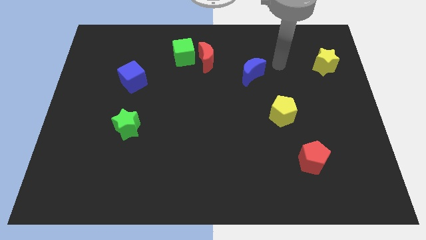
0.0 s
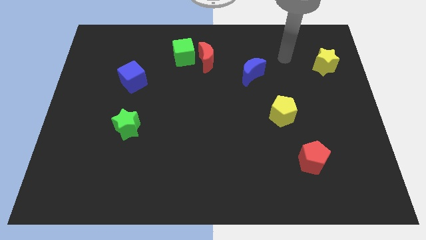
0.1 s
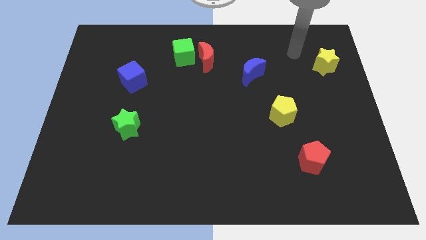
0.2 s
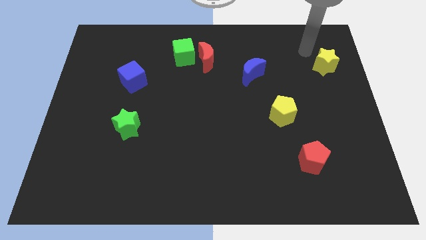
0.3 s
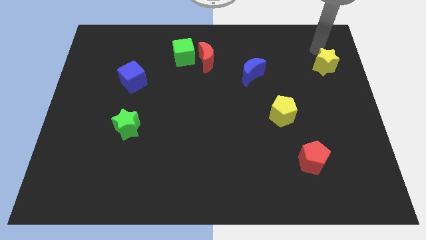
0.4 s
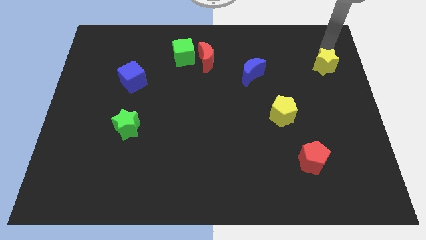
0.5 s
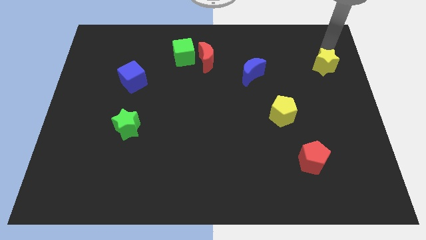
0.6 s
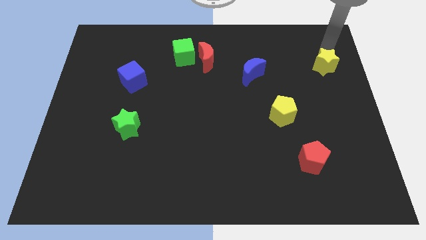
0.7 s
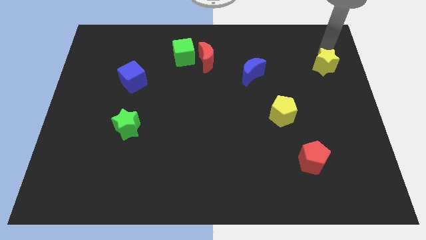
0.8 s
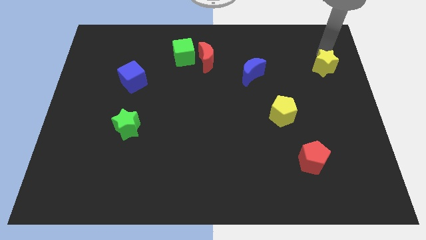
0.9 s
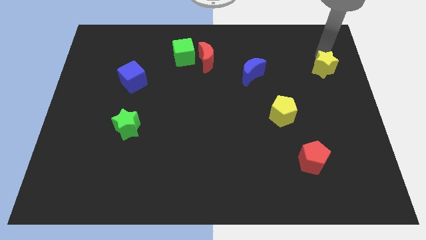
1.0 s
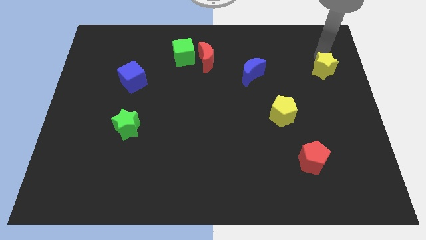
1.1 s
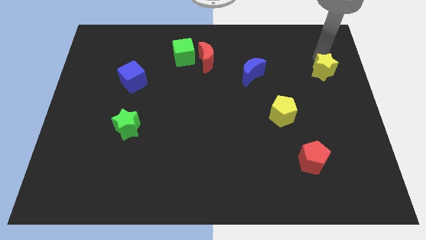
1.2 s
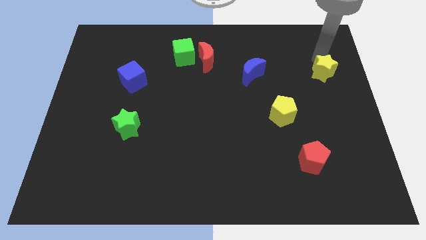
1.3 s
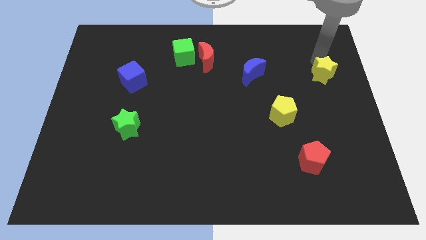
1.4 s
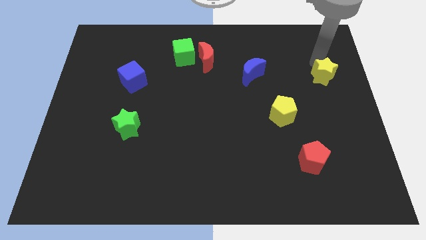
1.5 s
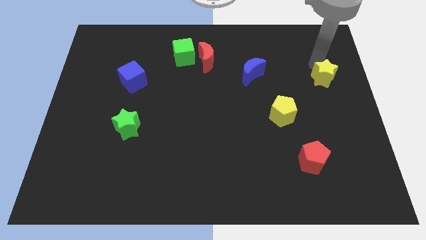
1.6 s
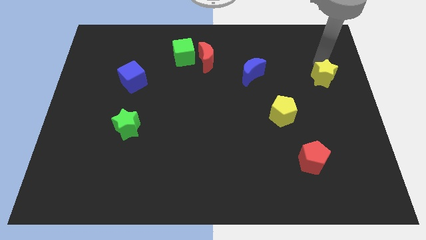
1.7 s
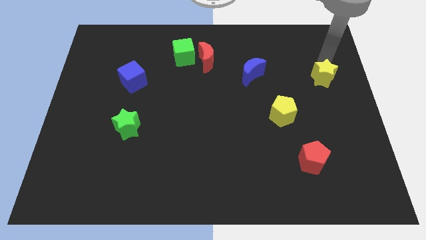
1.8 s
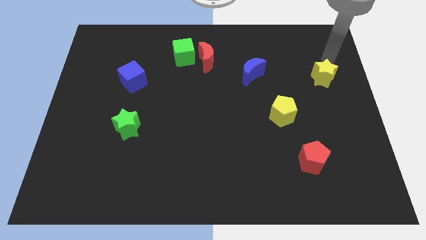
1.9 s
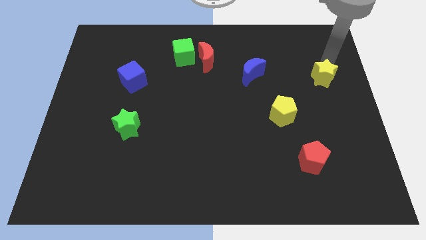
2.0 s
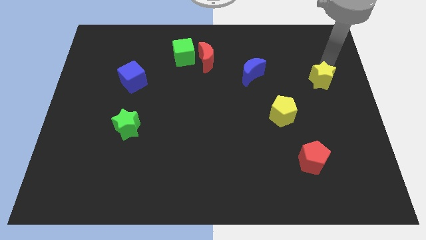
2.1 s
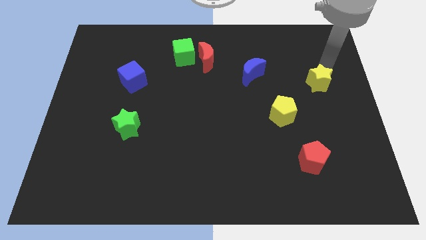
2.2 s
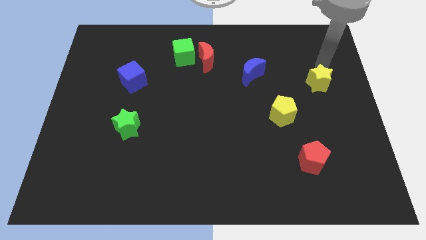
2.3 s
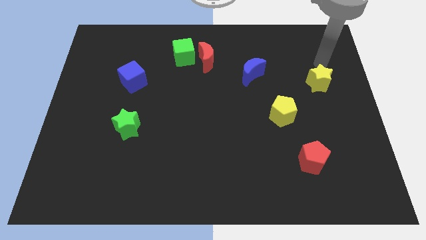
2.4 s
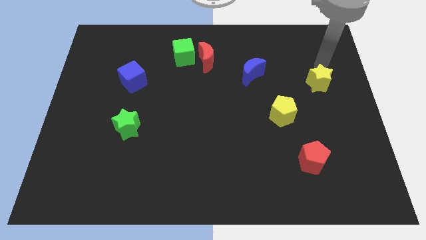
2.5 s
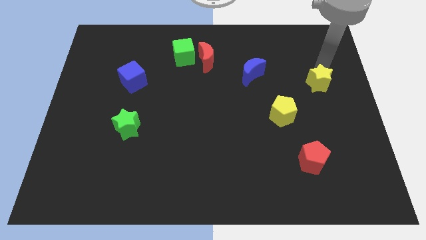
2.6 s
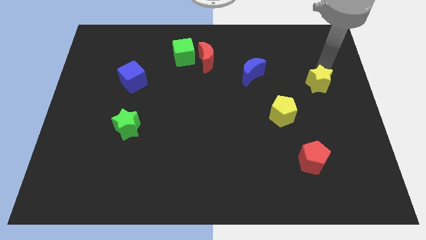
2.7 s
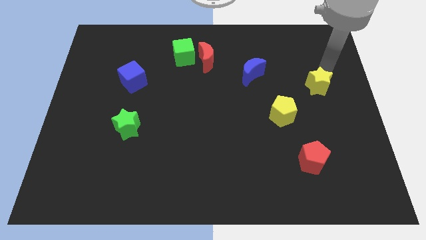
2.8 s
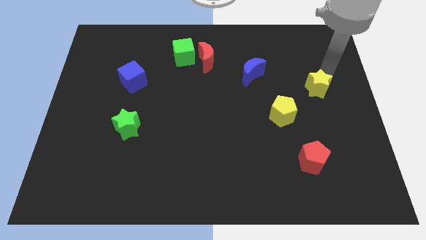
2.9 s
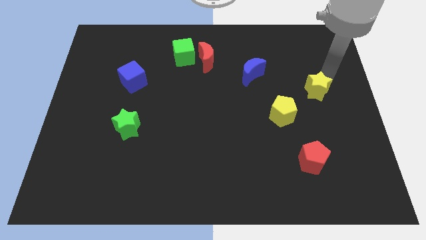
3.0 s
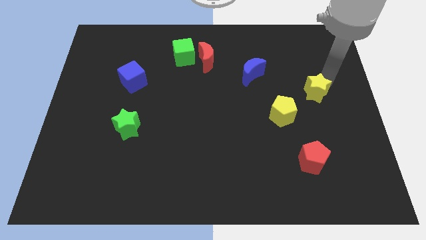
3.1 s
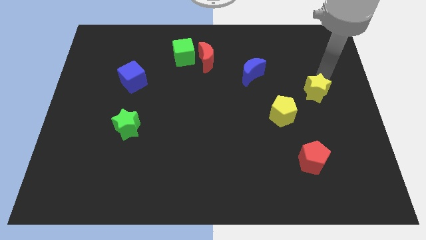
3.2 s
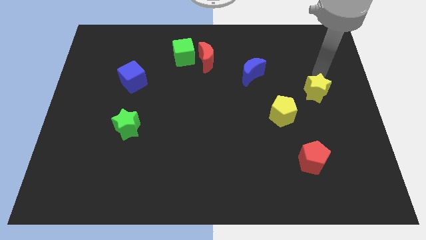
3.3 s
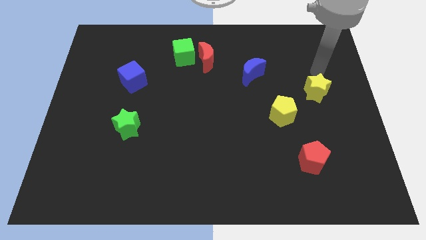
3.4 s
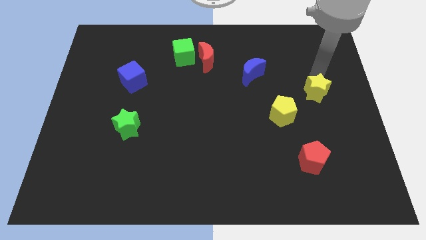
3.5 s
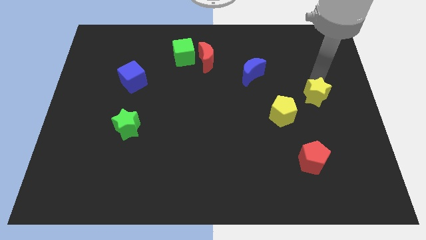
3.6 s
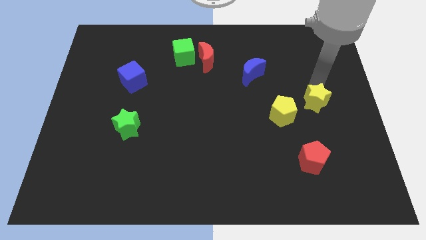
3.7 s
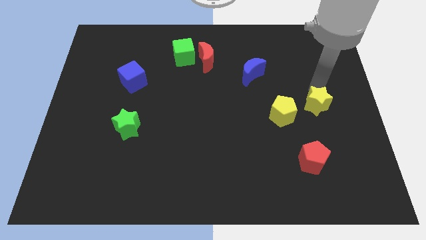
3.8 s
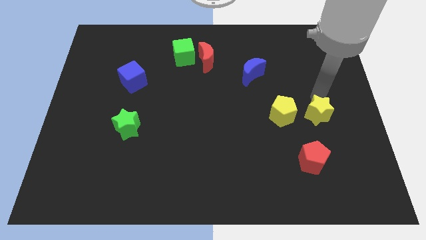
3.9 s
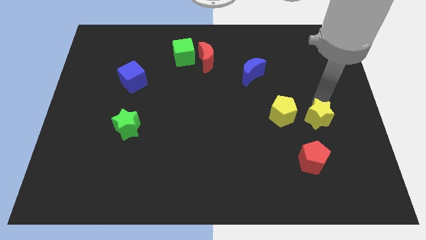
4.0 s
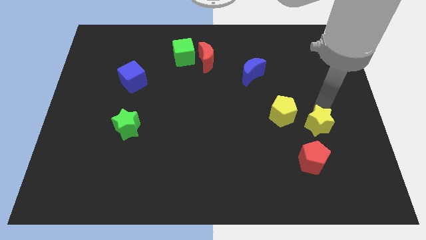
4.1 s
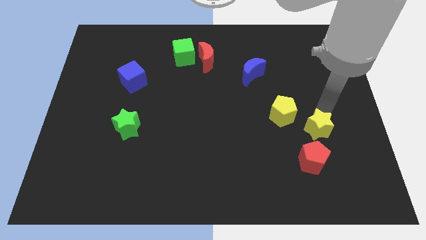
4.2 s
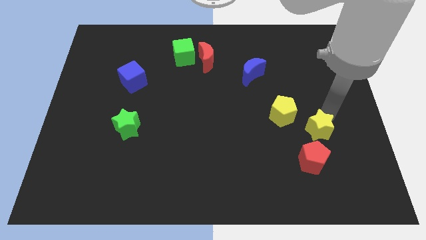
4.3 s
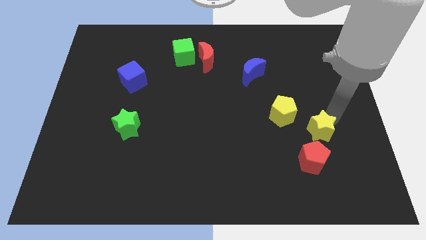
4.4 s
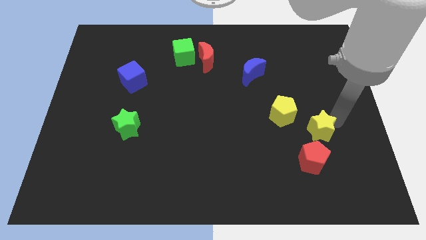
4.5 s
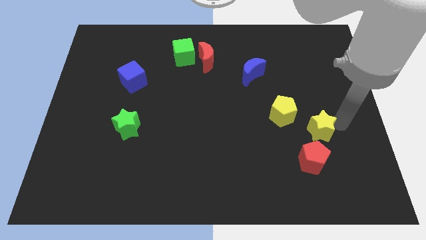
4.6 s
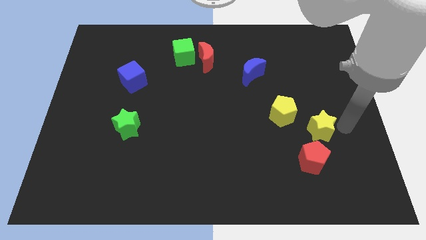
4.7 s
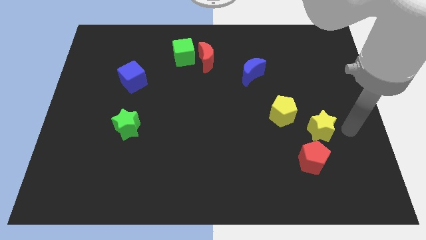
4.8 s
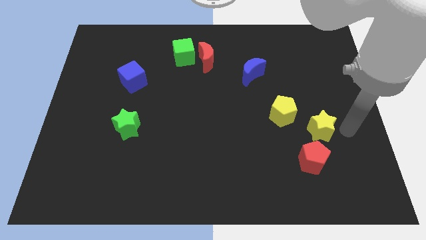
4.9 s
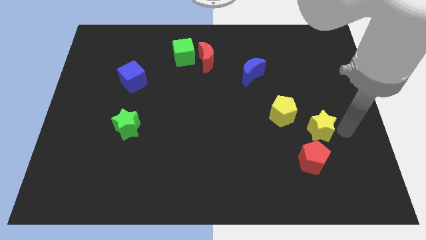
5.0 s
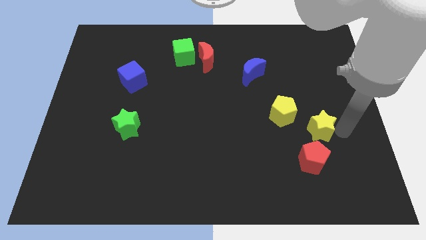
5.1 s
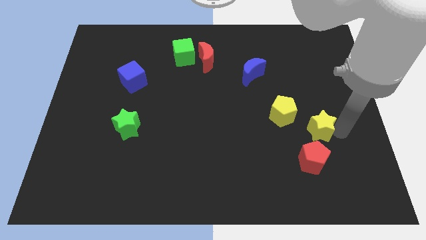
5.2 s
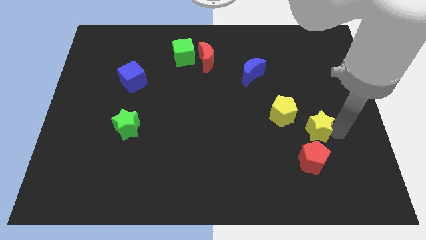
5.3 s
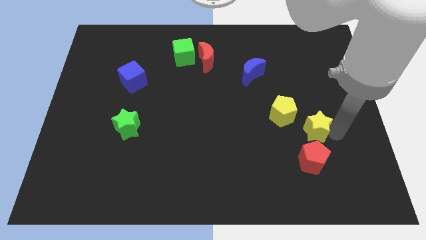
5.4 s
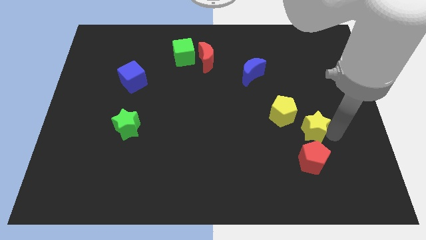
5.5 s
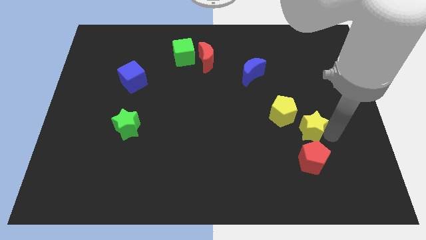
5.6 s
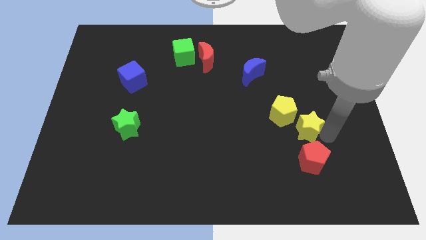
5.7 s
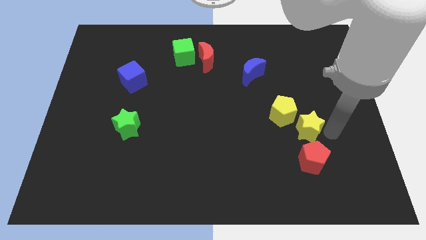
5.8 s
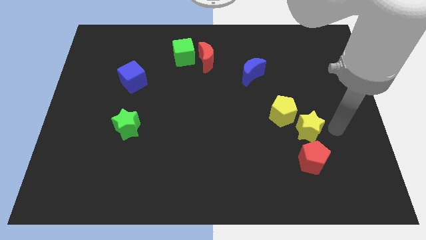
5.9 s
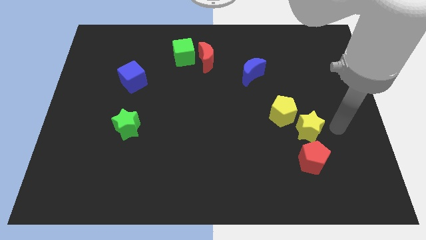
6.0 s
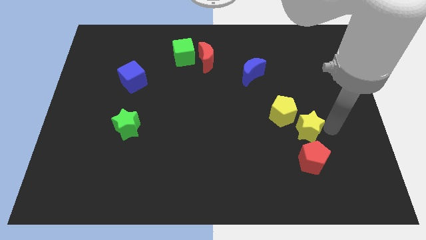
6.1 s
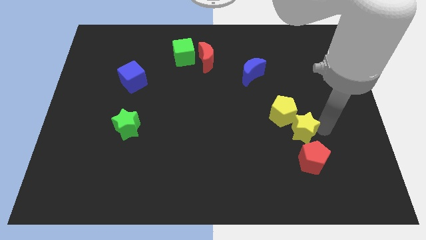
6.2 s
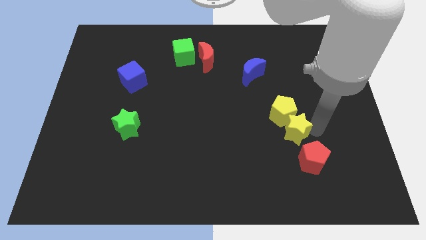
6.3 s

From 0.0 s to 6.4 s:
slide the yellow star downwards and then to the left

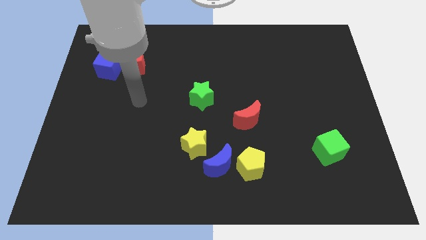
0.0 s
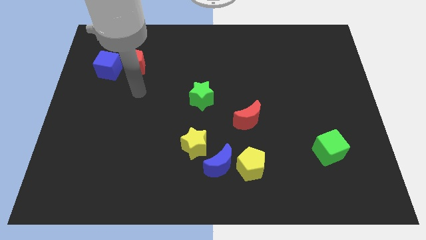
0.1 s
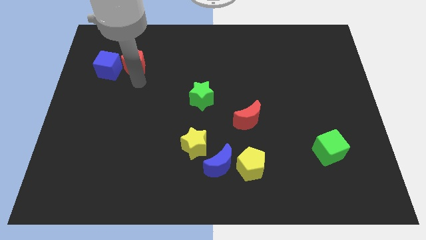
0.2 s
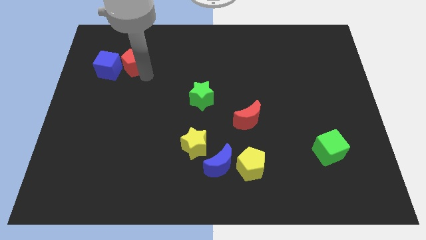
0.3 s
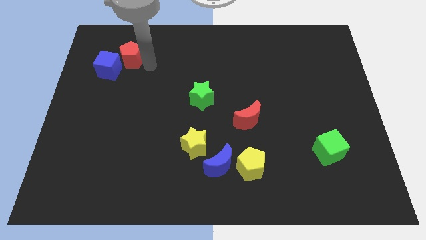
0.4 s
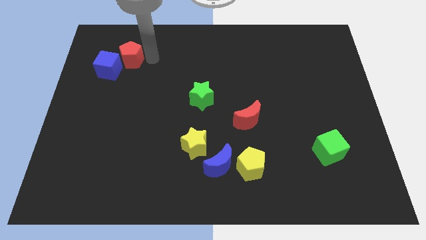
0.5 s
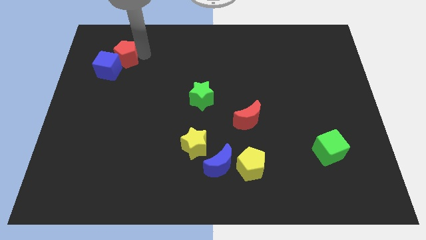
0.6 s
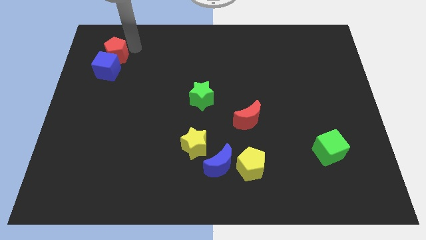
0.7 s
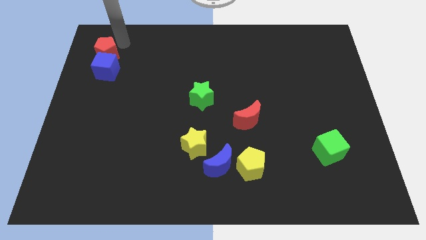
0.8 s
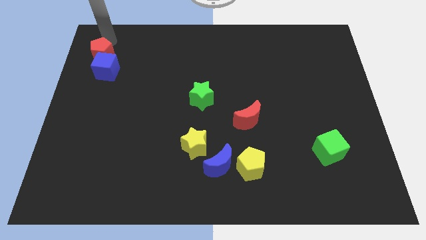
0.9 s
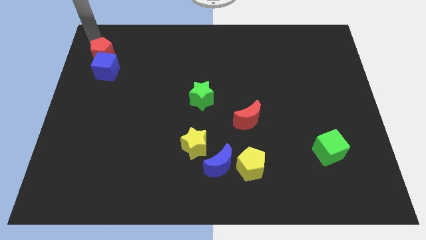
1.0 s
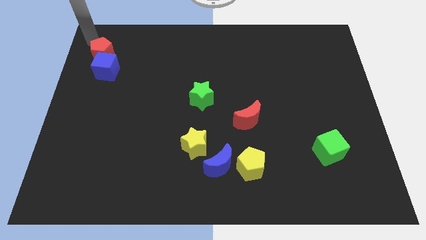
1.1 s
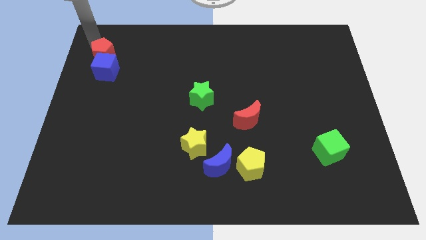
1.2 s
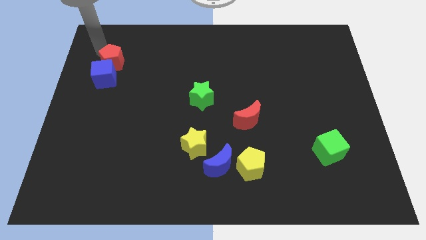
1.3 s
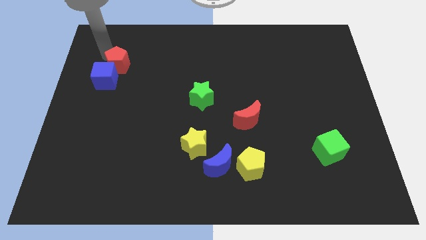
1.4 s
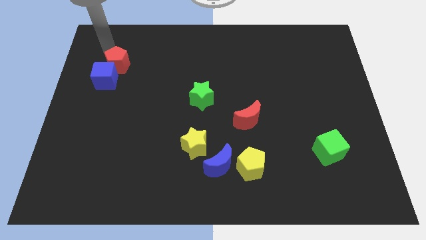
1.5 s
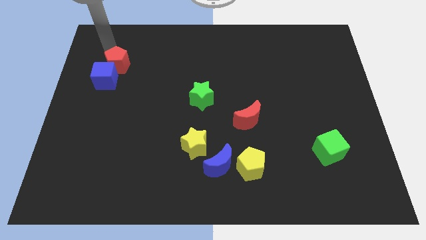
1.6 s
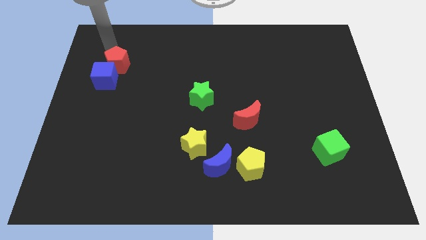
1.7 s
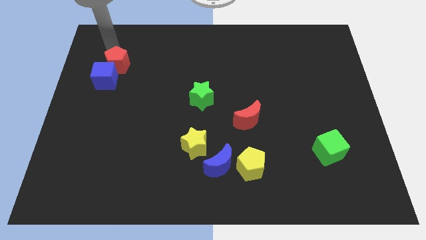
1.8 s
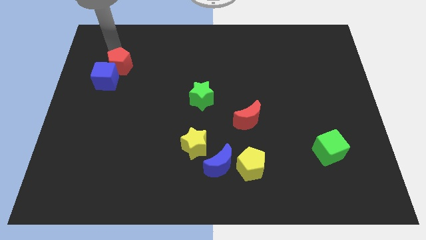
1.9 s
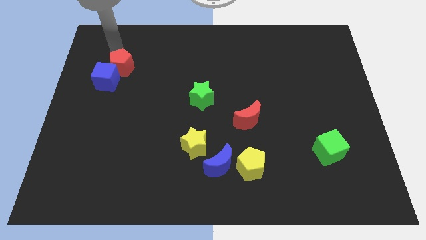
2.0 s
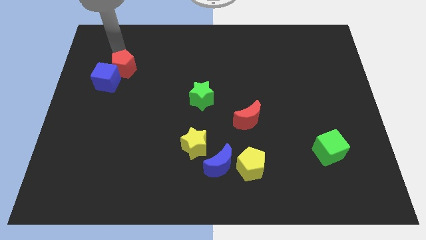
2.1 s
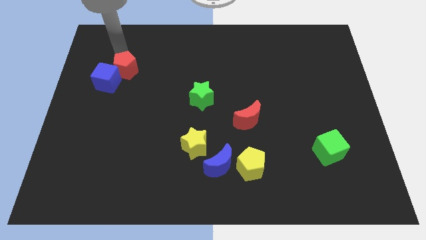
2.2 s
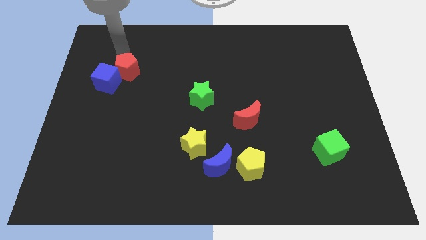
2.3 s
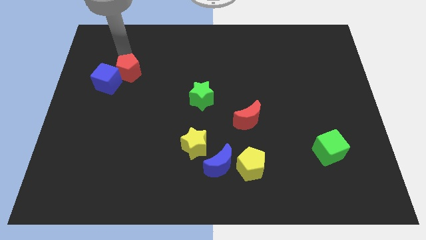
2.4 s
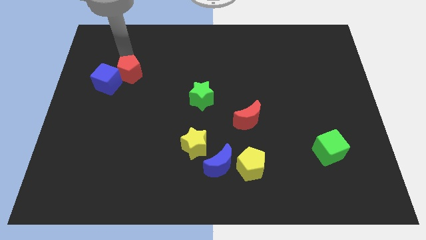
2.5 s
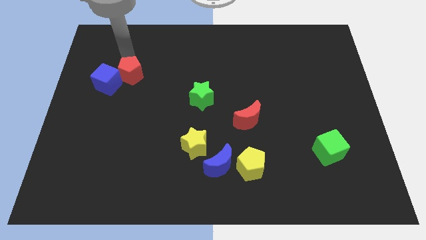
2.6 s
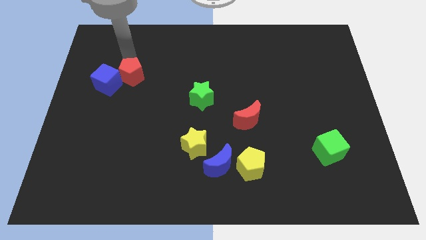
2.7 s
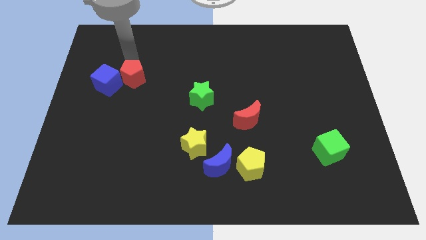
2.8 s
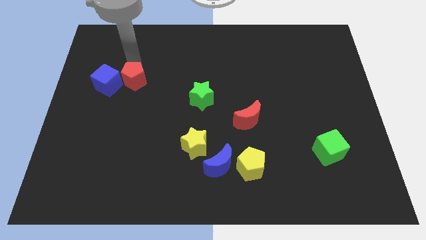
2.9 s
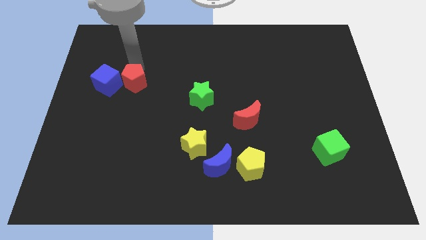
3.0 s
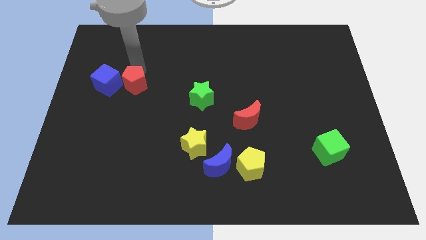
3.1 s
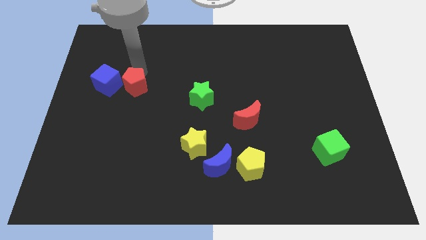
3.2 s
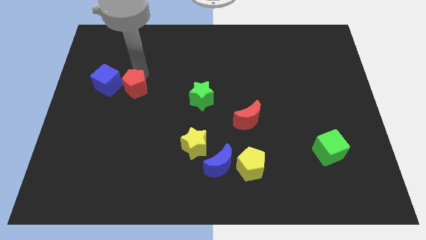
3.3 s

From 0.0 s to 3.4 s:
push the red pentagon somewhat downwards
